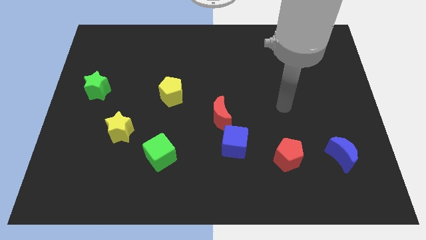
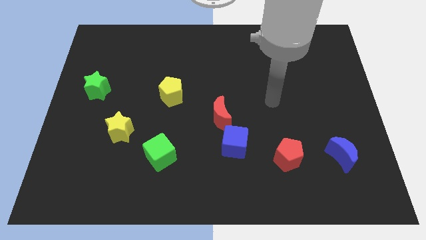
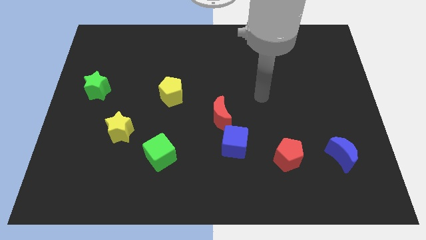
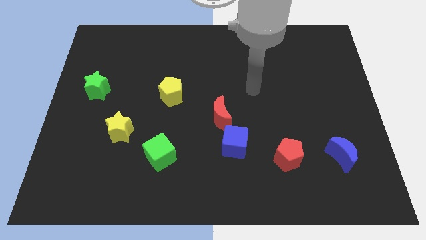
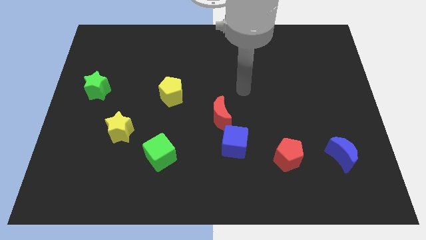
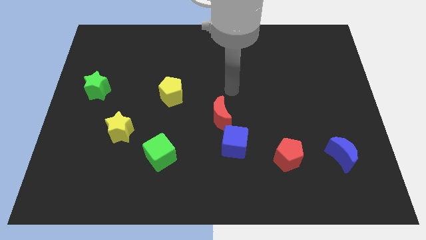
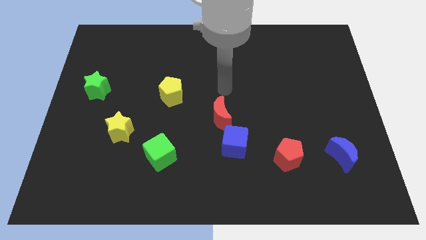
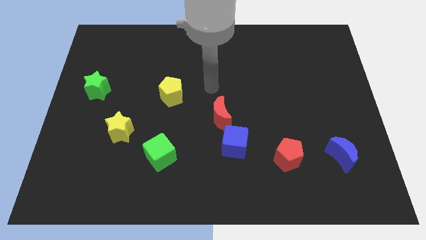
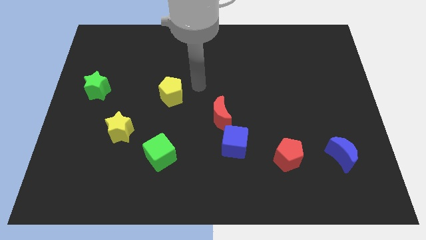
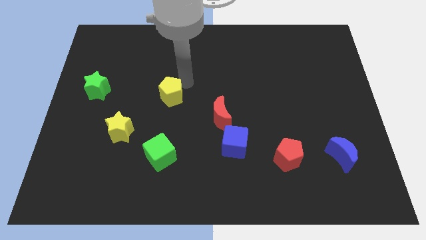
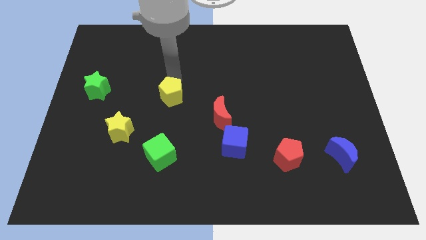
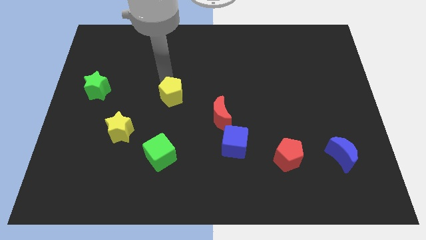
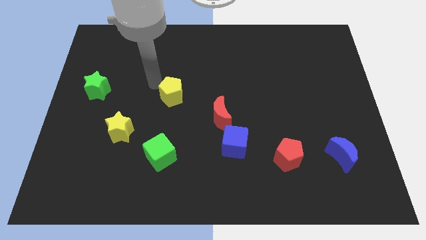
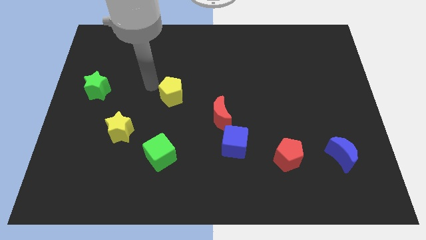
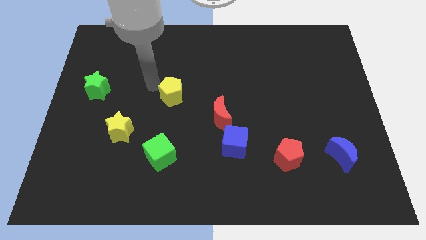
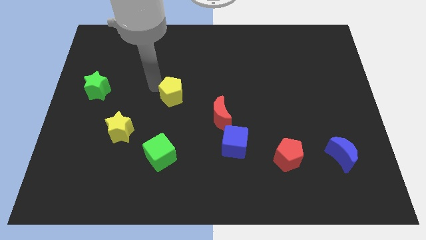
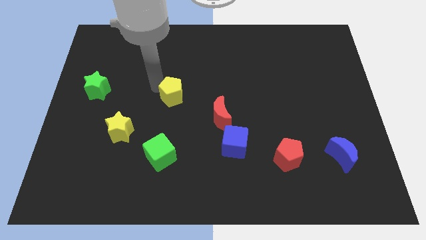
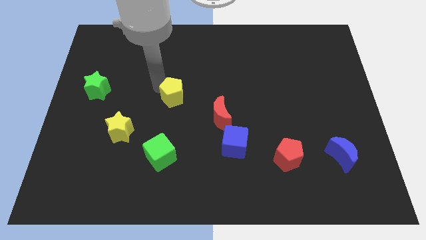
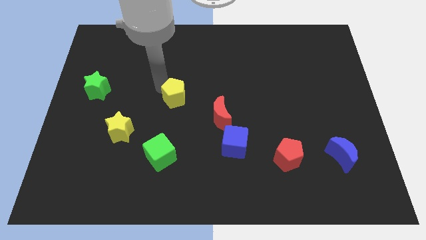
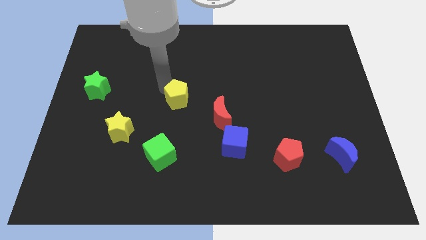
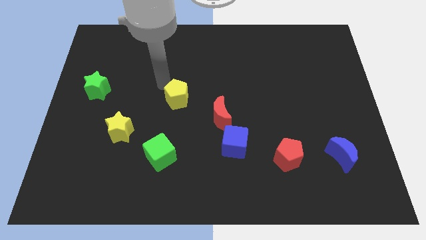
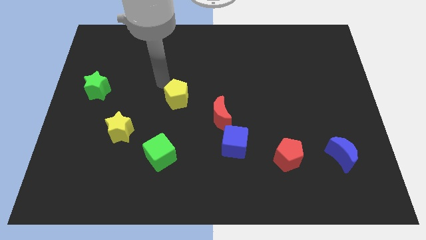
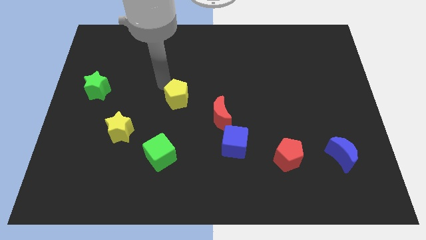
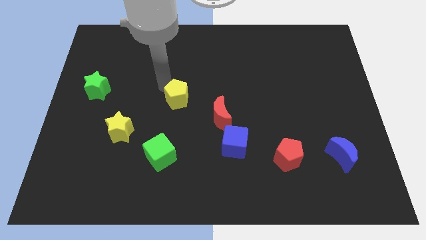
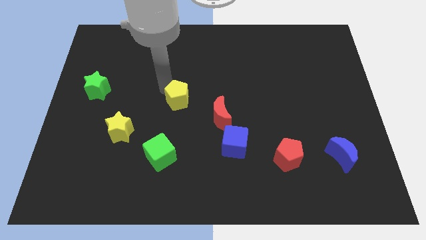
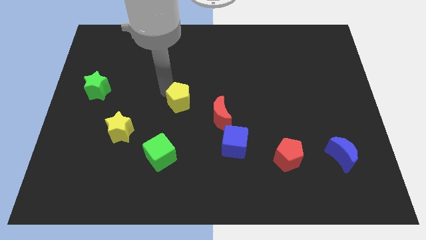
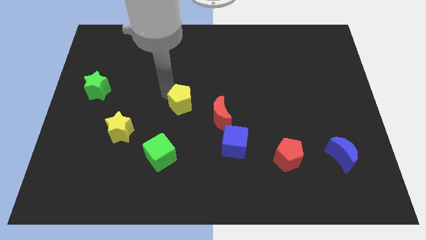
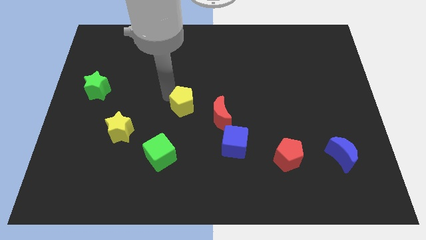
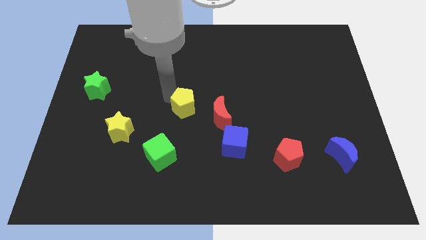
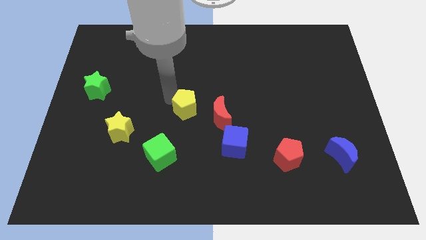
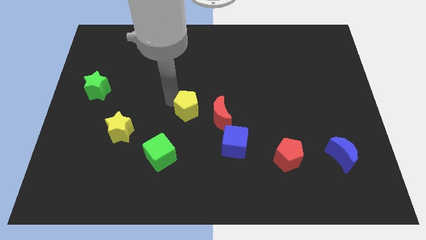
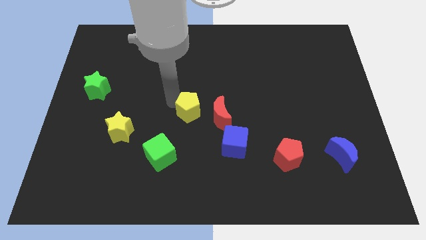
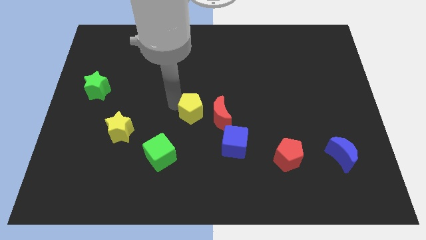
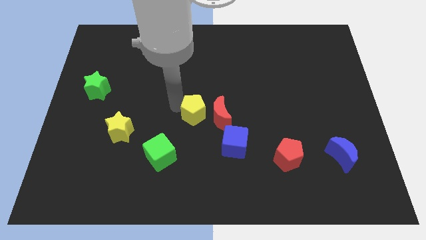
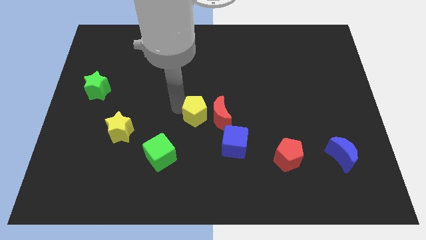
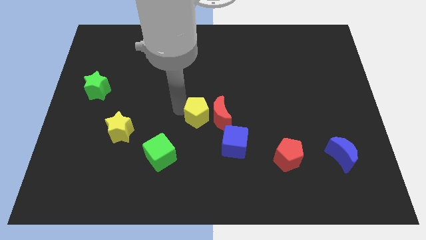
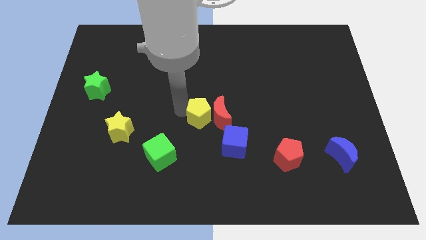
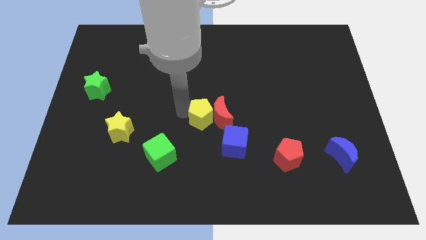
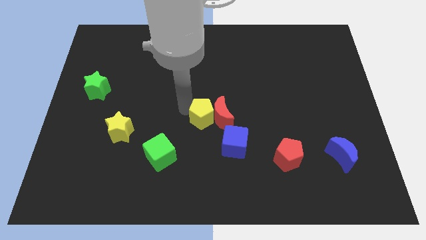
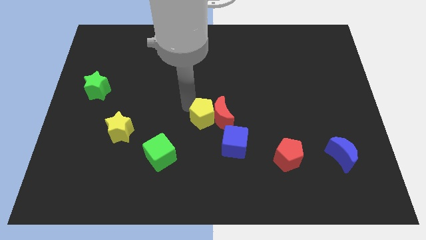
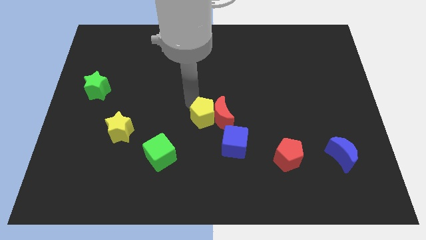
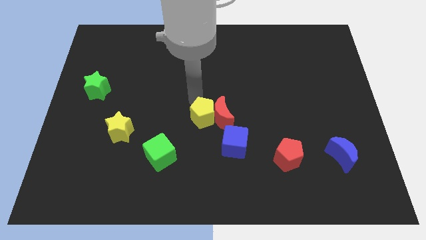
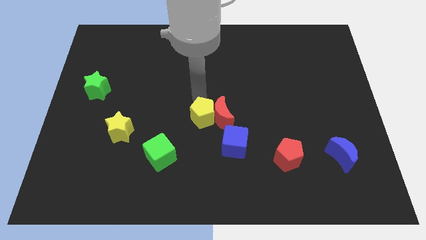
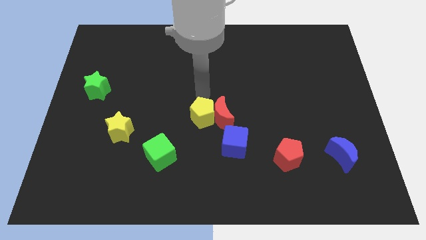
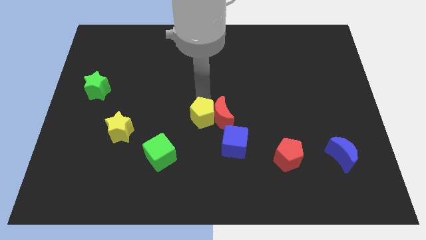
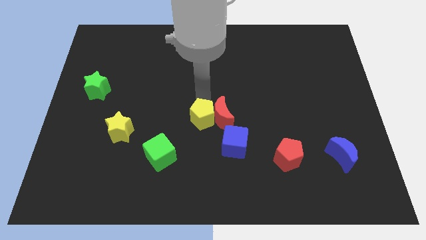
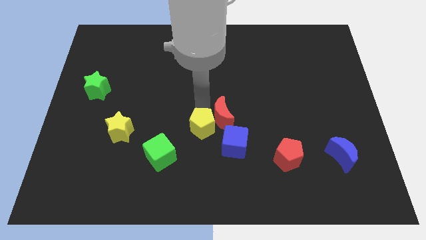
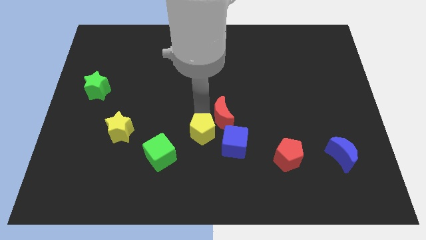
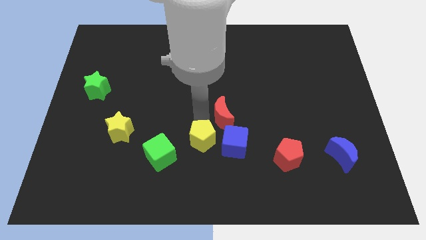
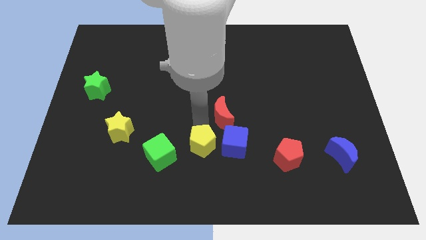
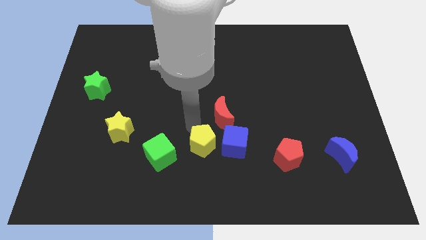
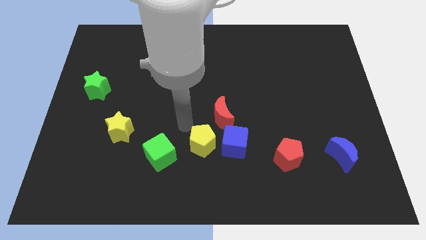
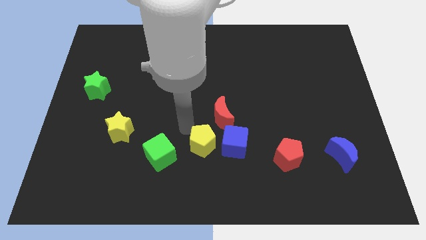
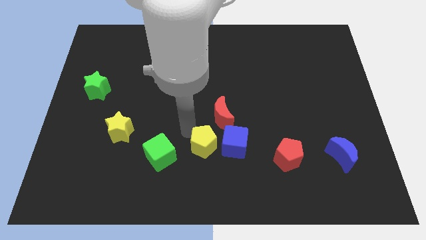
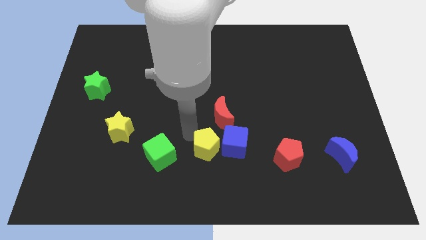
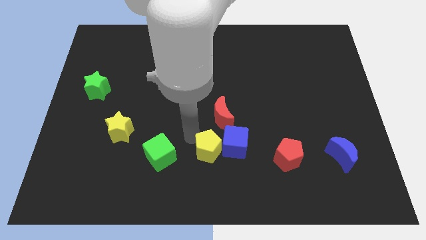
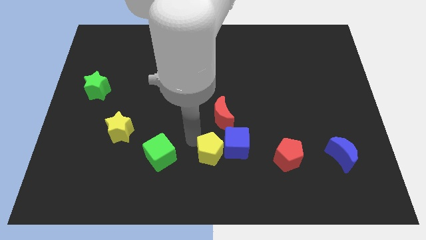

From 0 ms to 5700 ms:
slide the yellow pentagon left of the red pentagon

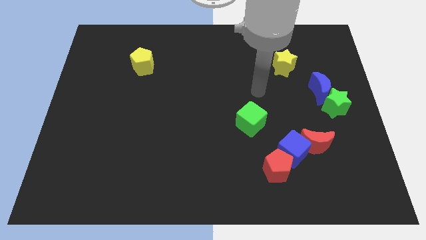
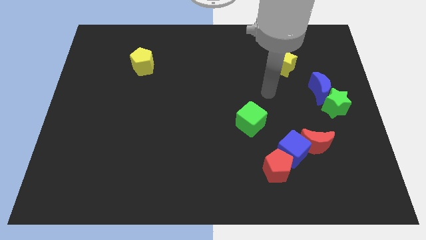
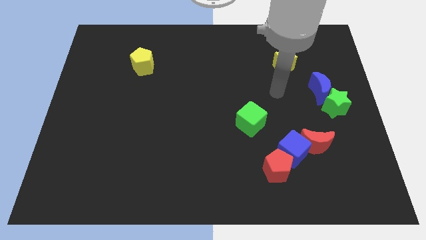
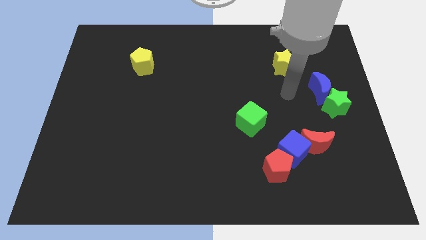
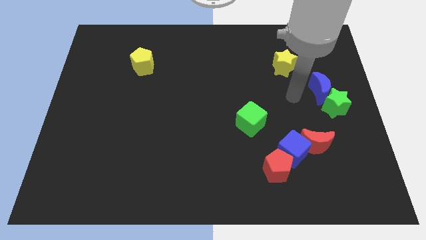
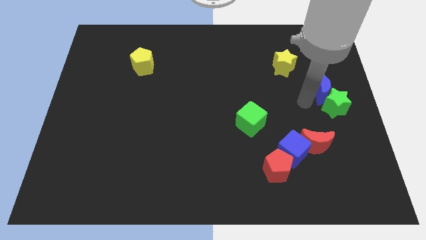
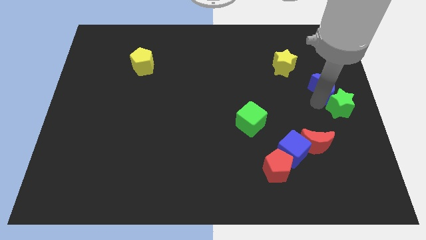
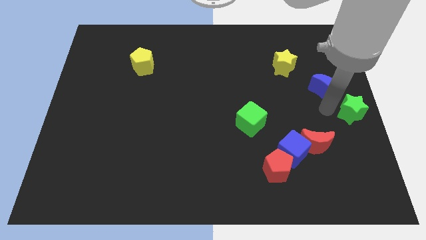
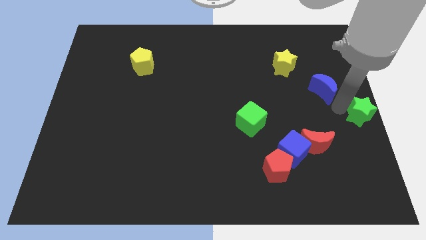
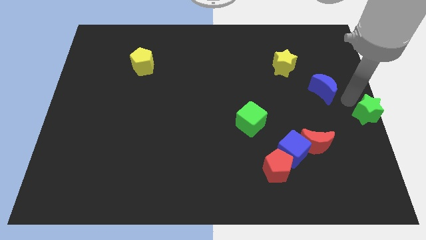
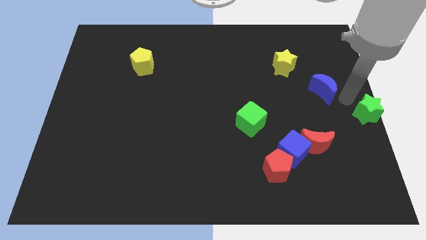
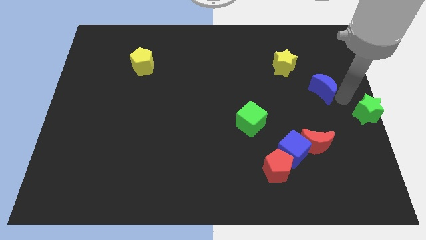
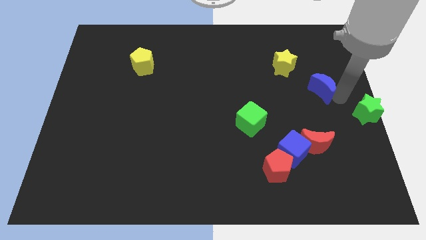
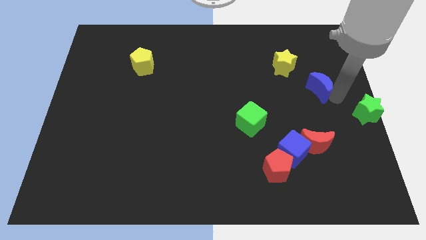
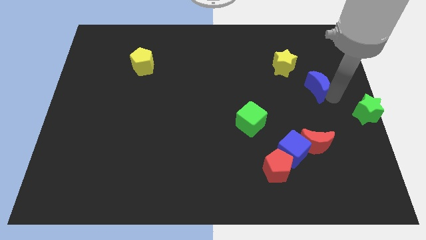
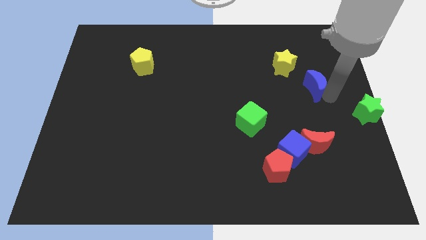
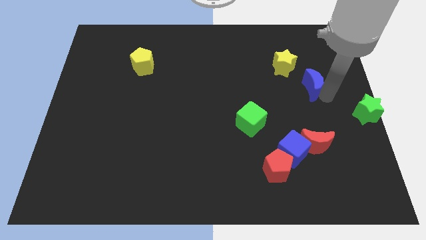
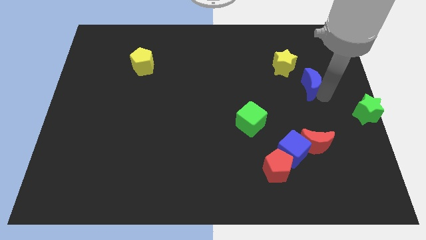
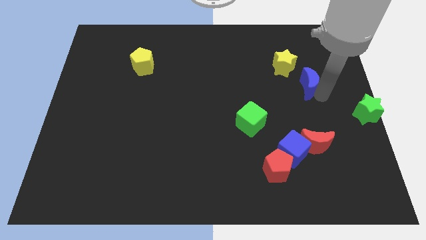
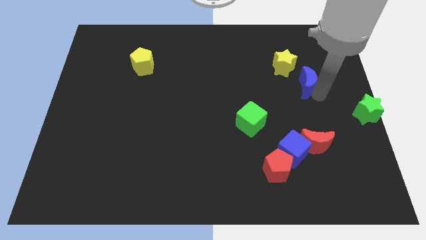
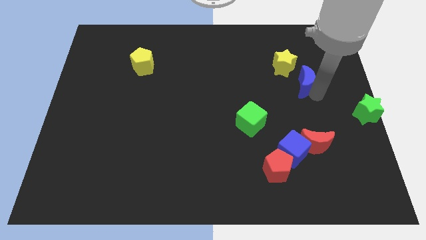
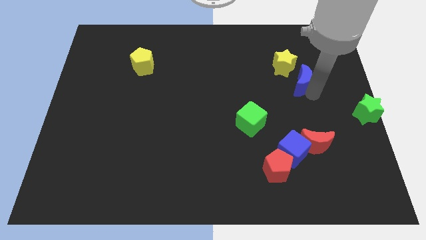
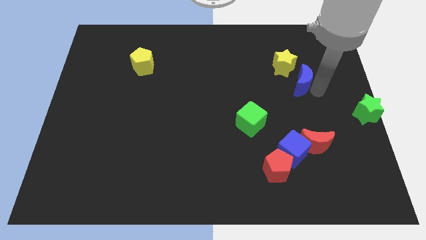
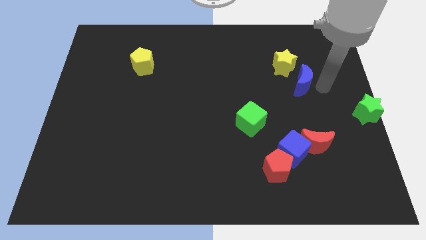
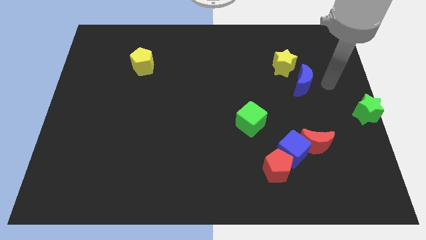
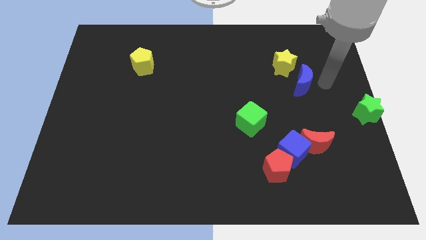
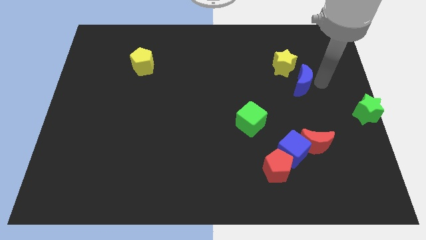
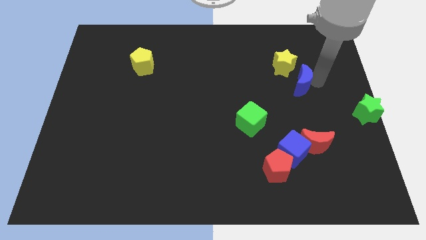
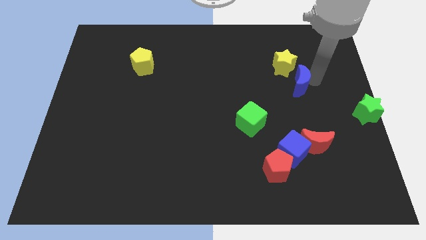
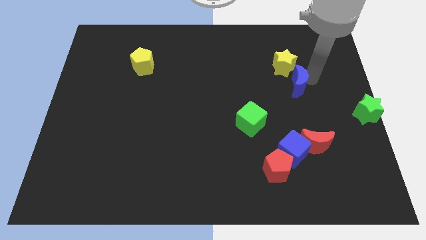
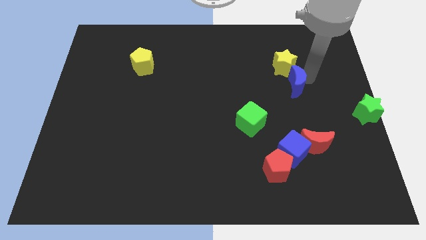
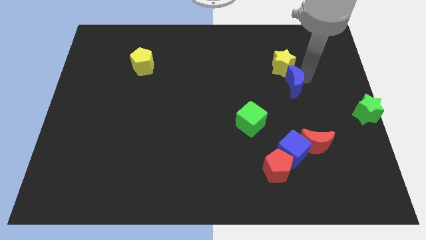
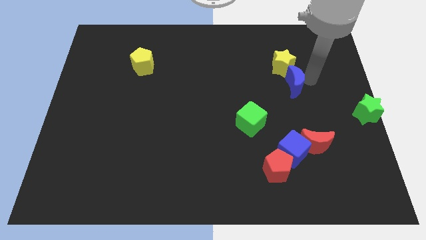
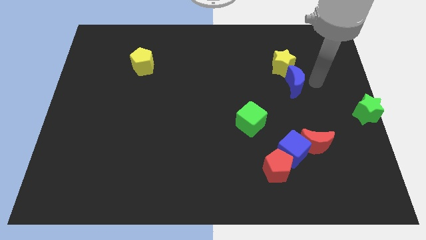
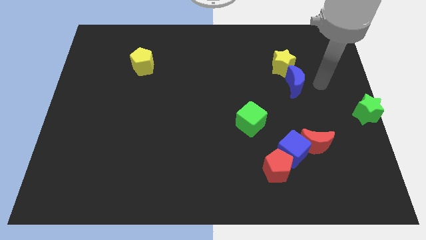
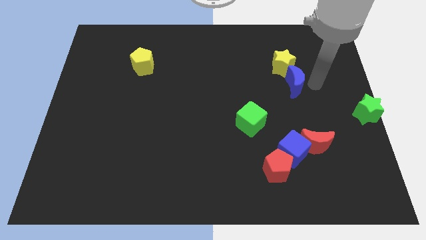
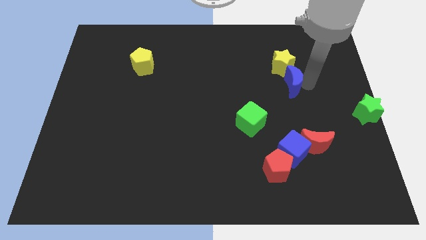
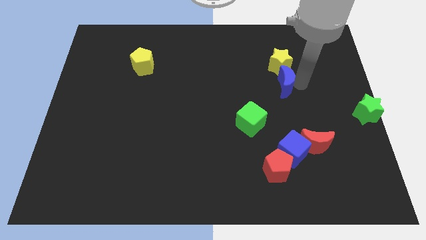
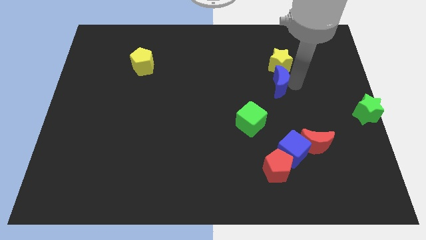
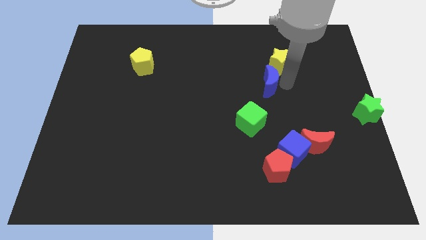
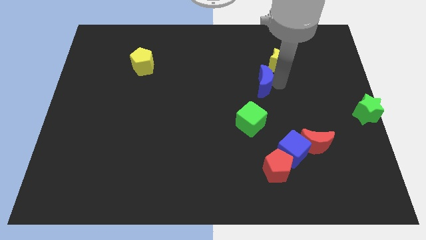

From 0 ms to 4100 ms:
put the blue moon to the top side of the green cube
